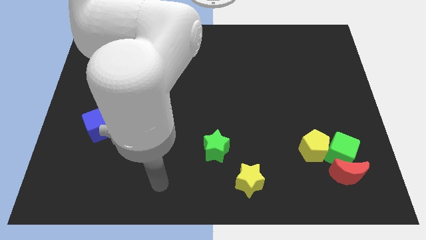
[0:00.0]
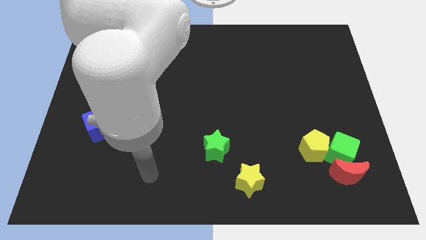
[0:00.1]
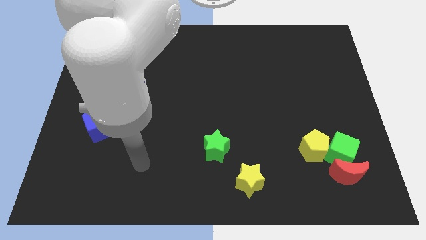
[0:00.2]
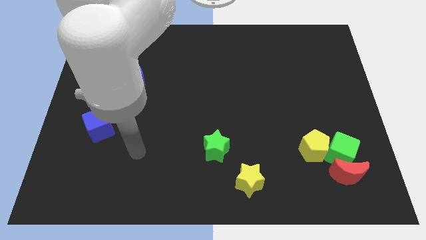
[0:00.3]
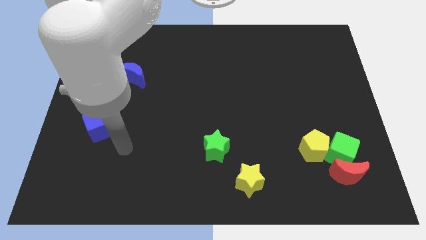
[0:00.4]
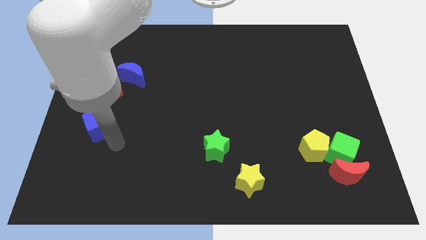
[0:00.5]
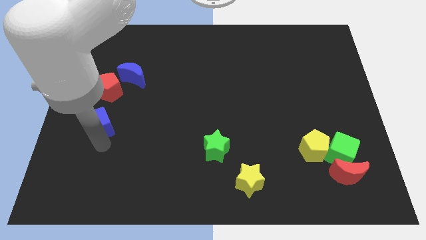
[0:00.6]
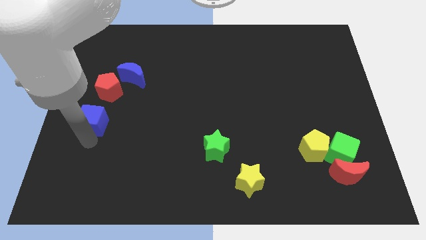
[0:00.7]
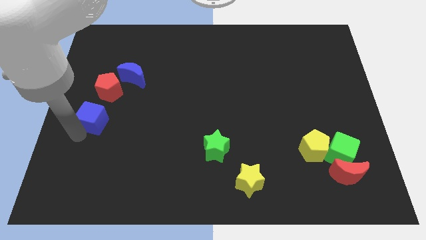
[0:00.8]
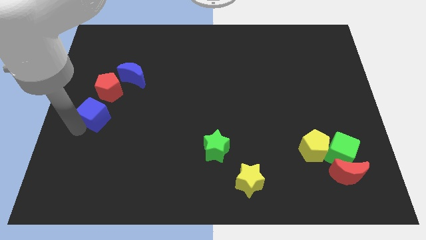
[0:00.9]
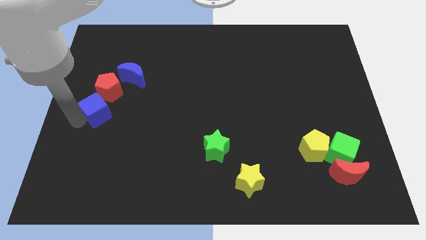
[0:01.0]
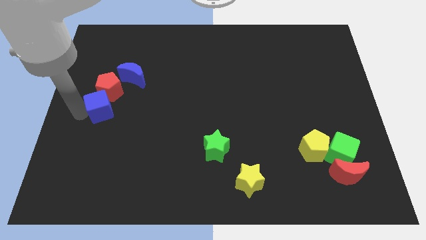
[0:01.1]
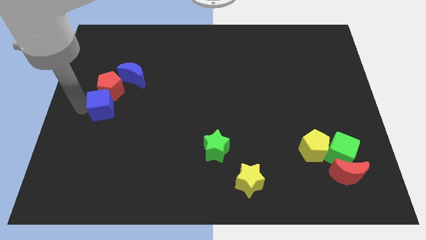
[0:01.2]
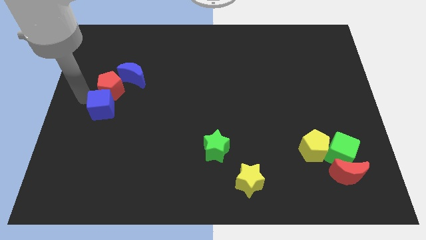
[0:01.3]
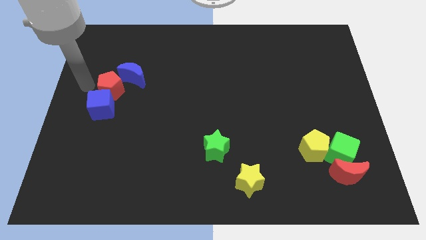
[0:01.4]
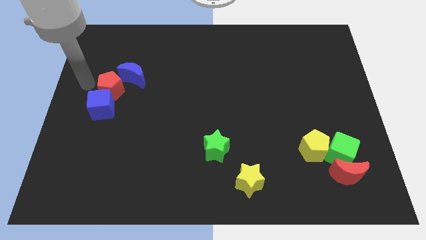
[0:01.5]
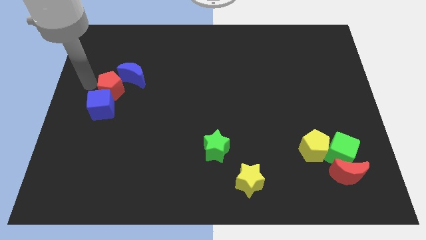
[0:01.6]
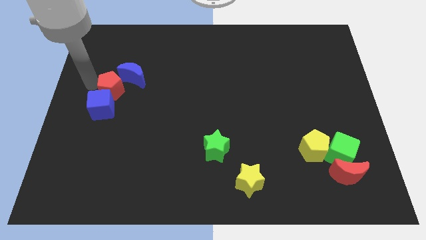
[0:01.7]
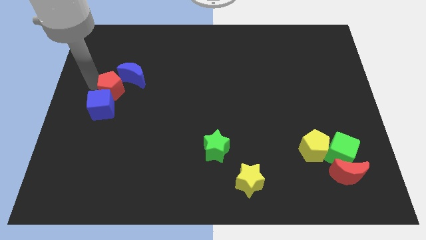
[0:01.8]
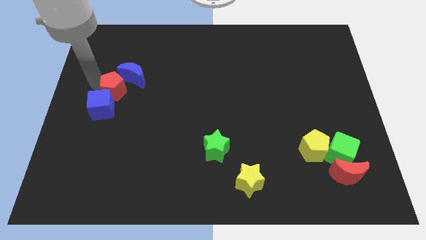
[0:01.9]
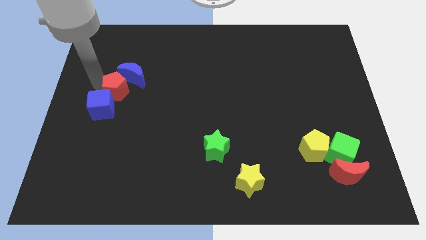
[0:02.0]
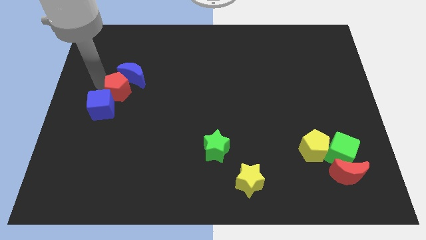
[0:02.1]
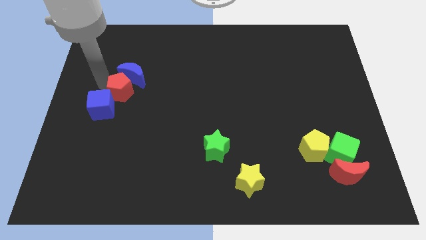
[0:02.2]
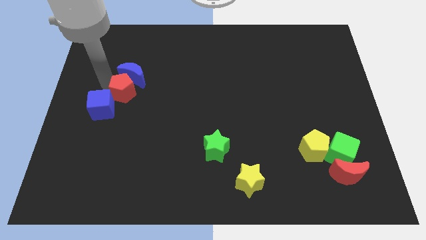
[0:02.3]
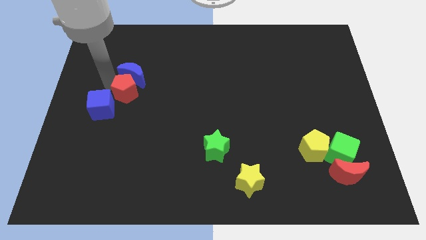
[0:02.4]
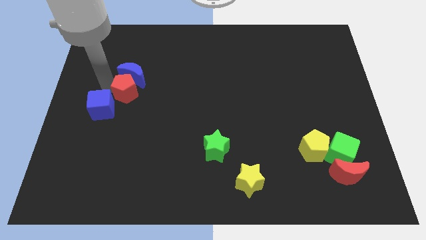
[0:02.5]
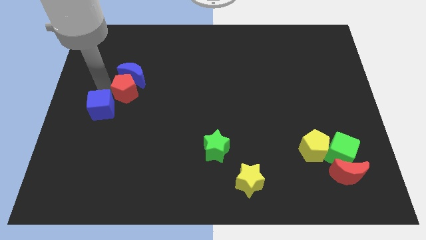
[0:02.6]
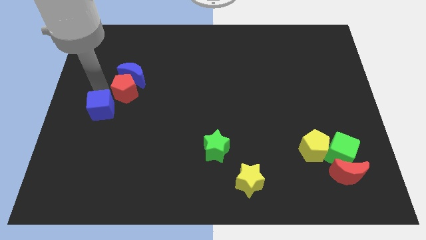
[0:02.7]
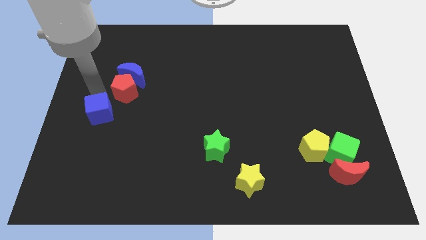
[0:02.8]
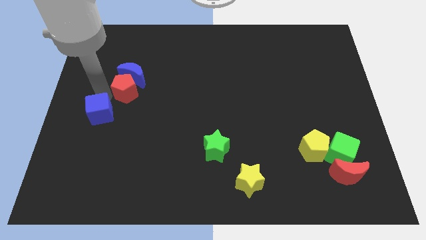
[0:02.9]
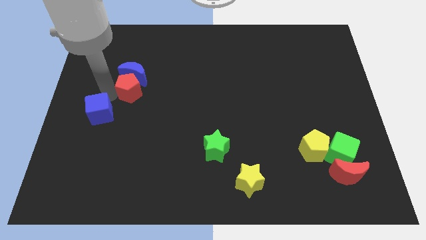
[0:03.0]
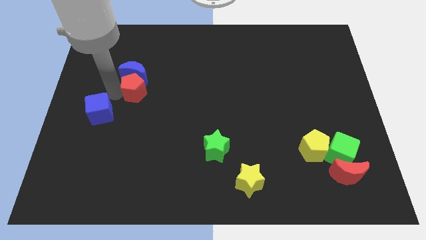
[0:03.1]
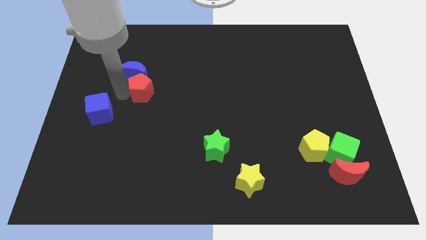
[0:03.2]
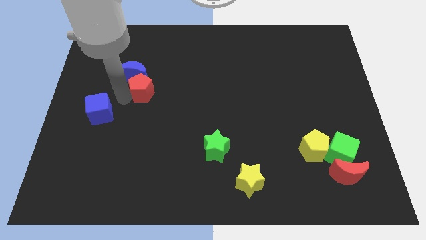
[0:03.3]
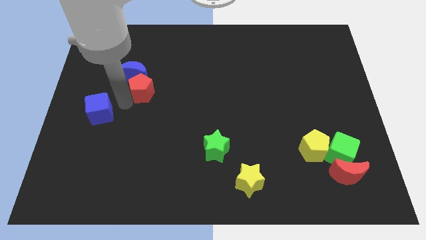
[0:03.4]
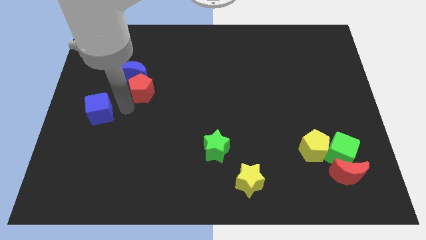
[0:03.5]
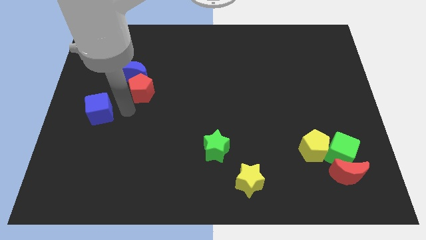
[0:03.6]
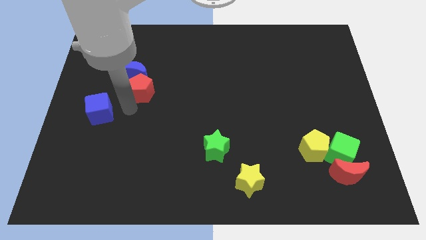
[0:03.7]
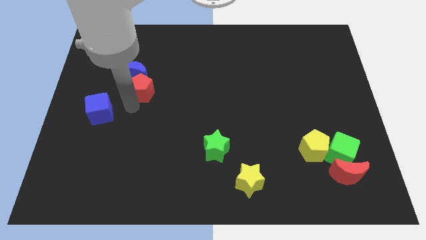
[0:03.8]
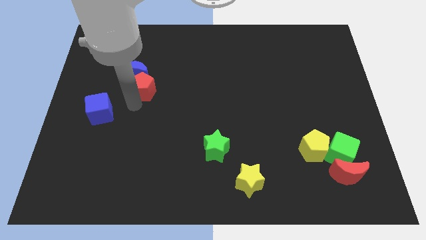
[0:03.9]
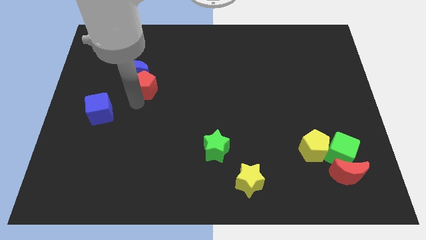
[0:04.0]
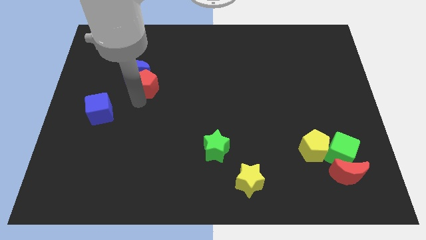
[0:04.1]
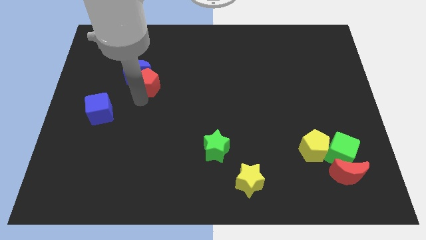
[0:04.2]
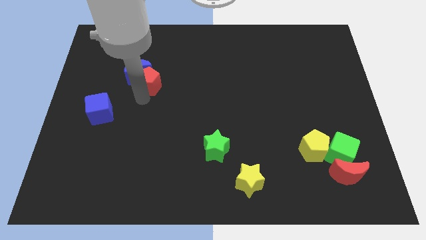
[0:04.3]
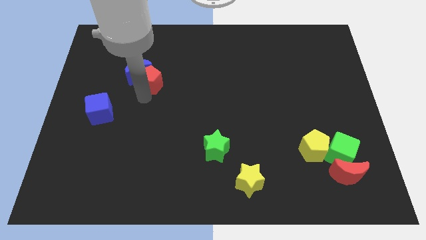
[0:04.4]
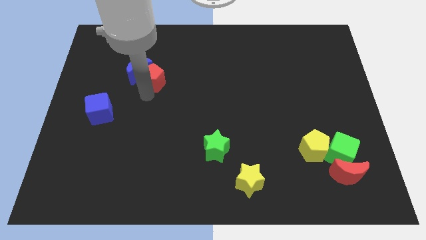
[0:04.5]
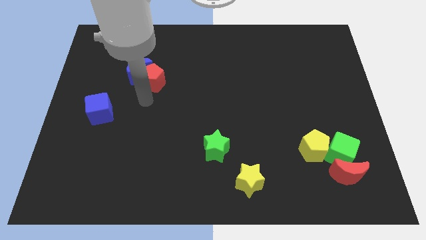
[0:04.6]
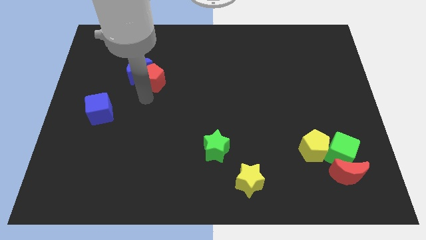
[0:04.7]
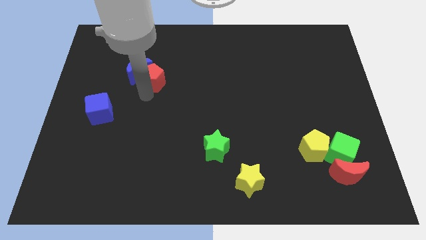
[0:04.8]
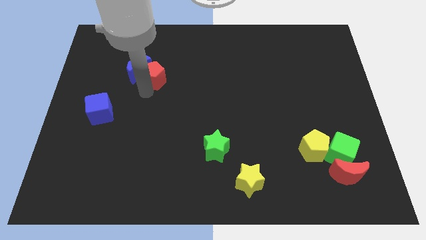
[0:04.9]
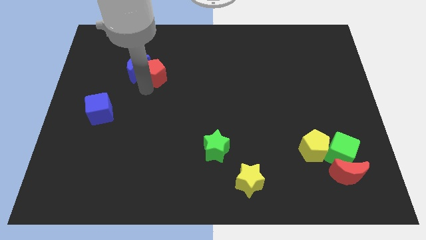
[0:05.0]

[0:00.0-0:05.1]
move the red pentagon to the top right of the blue moon

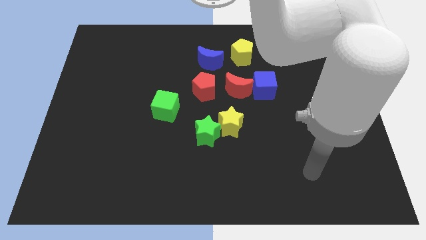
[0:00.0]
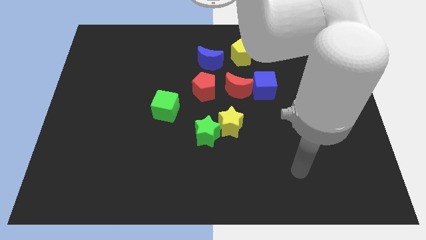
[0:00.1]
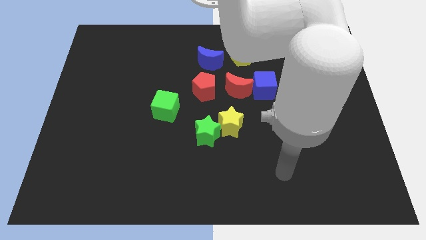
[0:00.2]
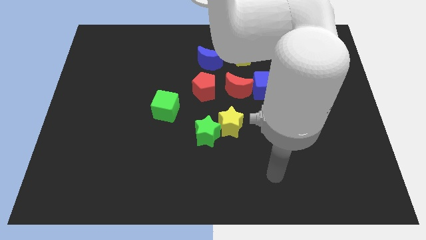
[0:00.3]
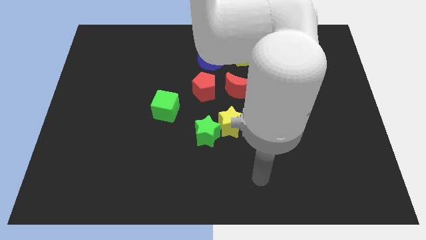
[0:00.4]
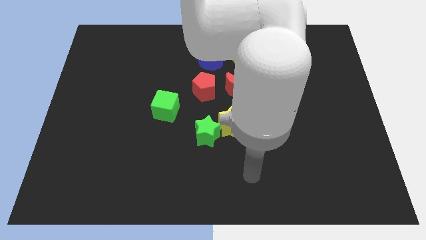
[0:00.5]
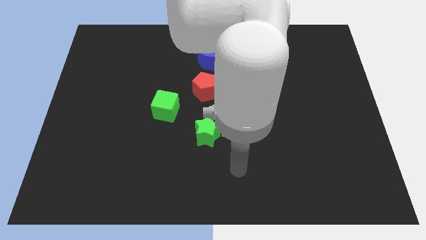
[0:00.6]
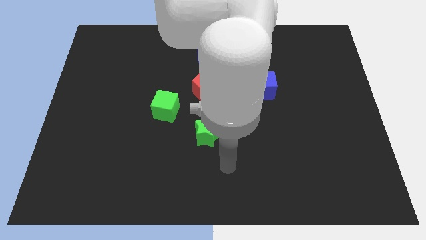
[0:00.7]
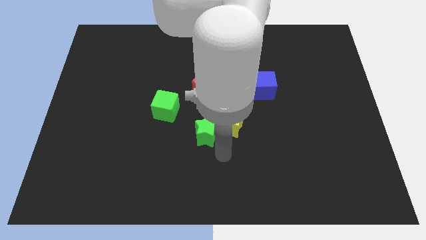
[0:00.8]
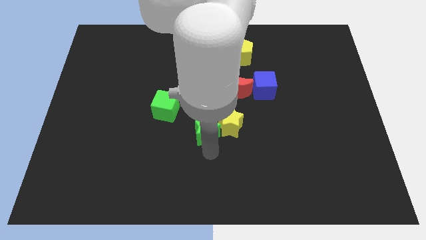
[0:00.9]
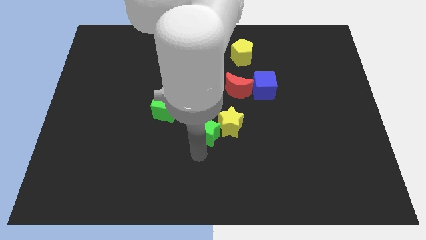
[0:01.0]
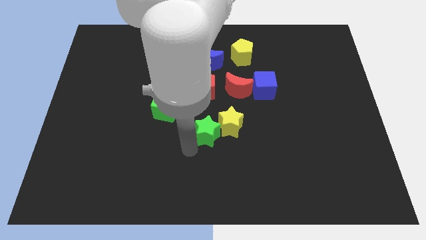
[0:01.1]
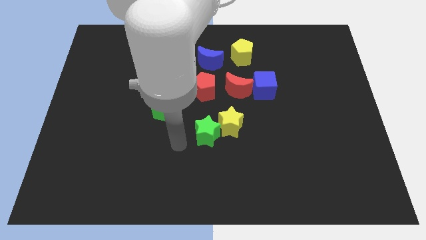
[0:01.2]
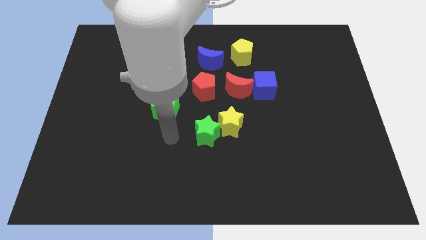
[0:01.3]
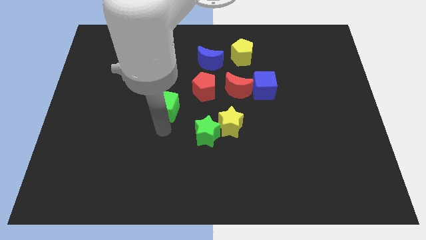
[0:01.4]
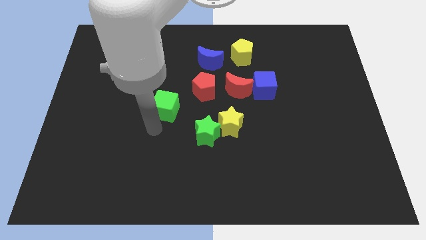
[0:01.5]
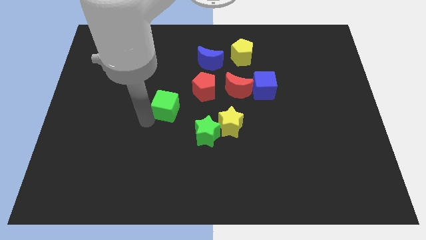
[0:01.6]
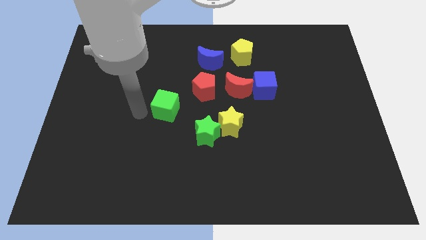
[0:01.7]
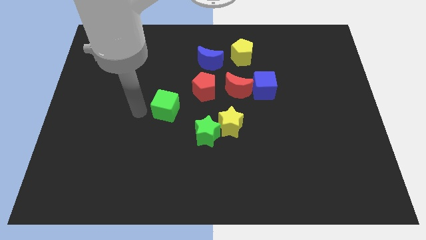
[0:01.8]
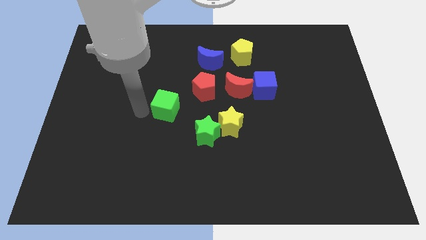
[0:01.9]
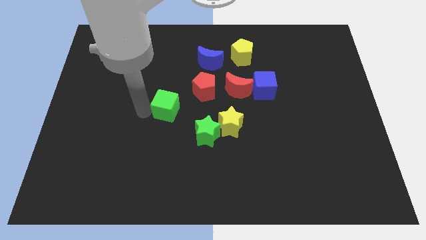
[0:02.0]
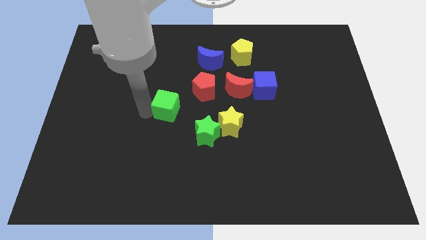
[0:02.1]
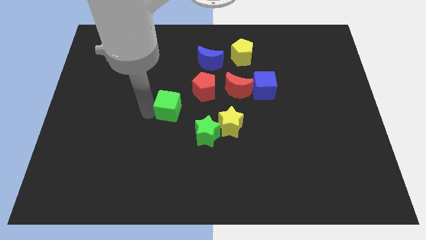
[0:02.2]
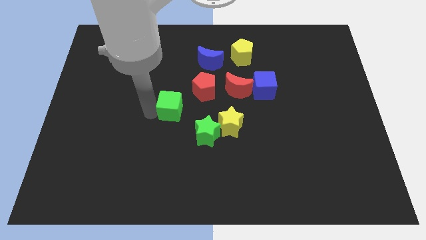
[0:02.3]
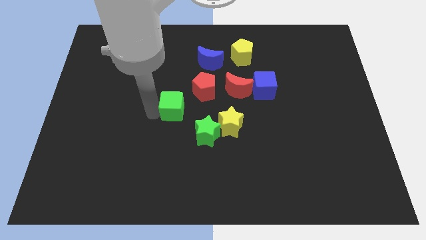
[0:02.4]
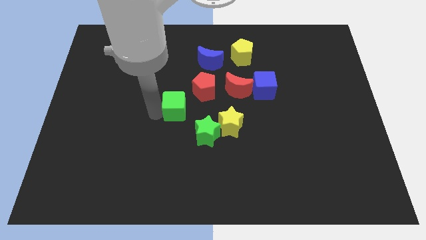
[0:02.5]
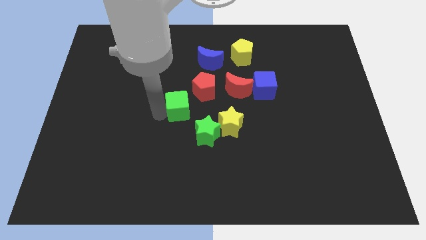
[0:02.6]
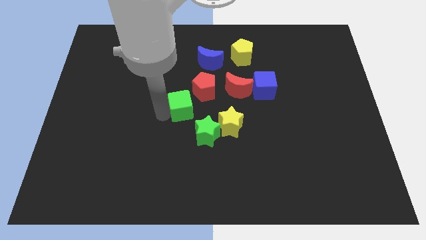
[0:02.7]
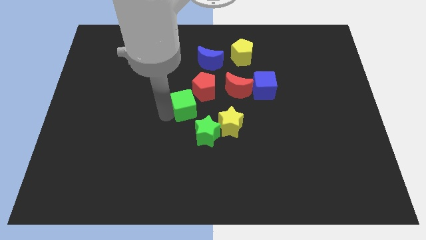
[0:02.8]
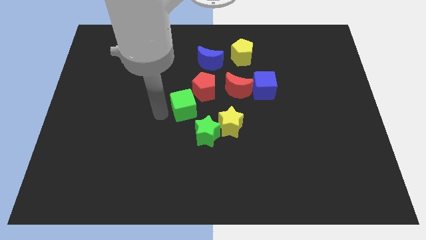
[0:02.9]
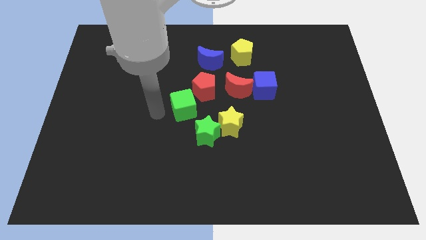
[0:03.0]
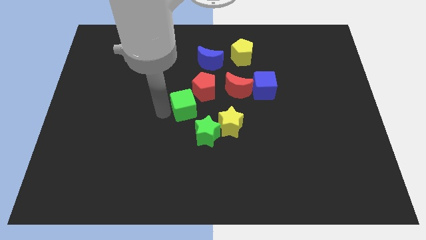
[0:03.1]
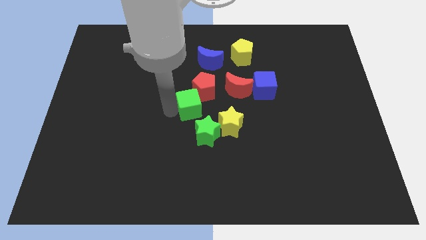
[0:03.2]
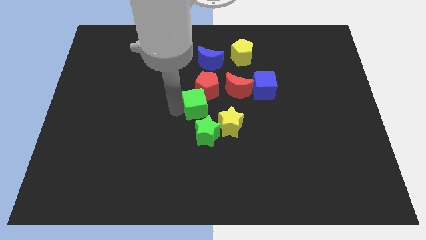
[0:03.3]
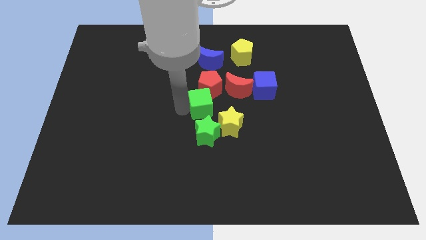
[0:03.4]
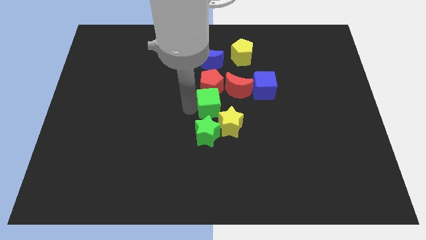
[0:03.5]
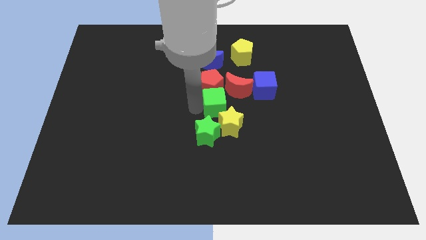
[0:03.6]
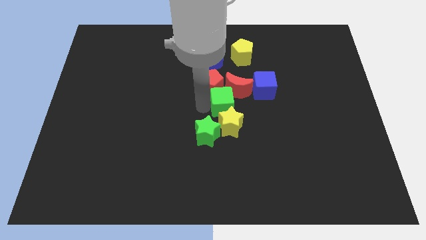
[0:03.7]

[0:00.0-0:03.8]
slide the green cube diagonally down and to the left of the blue cube
